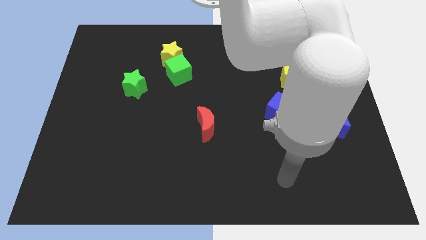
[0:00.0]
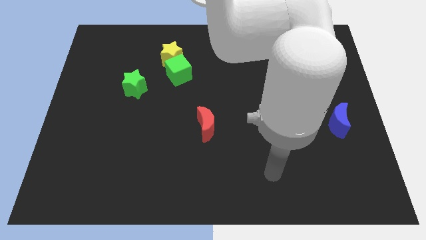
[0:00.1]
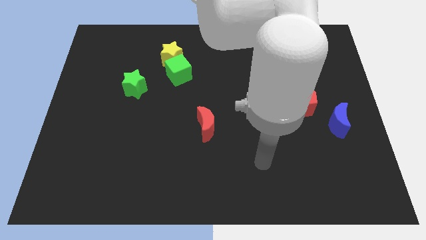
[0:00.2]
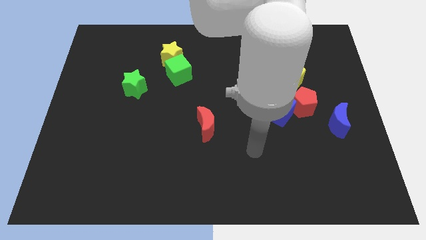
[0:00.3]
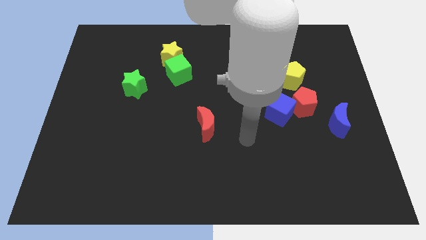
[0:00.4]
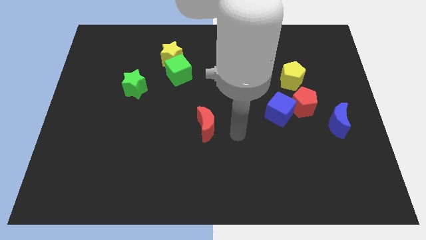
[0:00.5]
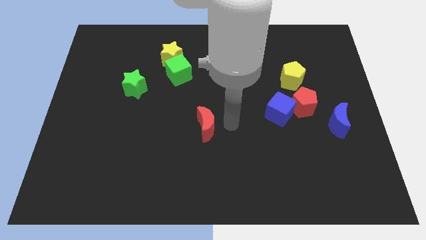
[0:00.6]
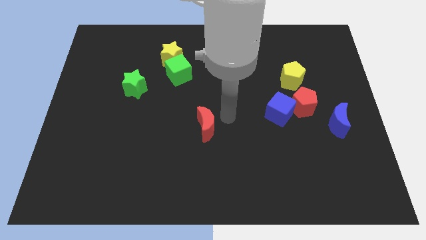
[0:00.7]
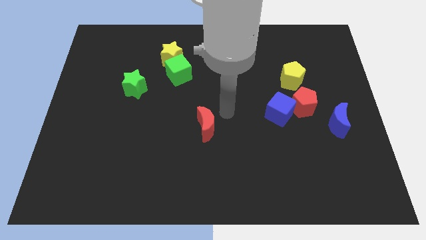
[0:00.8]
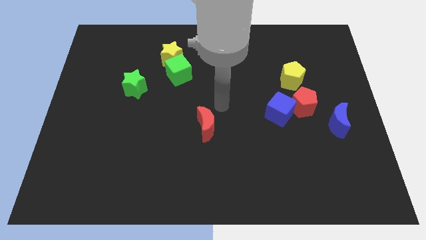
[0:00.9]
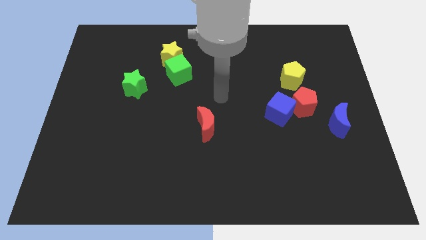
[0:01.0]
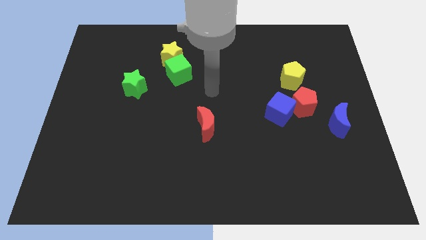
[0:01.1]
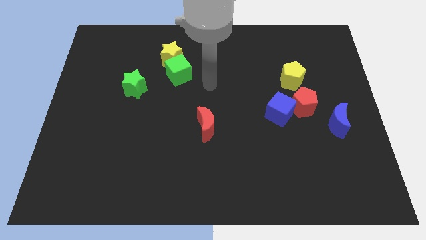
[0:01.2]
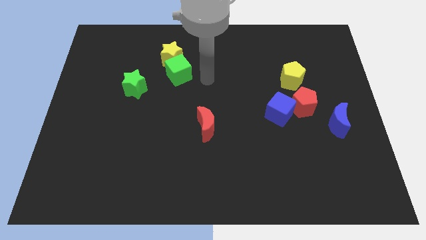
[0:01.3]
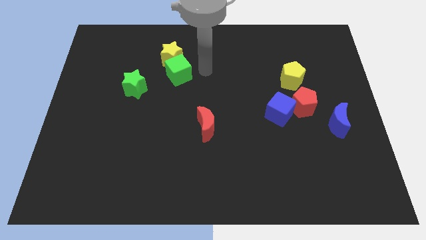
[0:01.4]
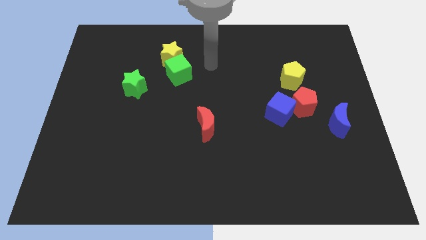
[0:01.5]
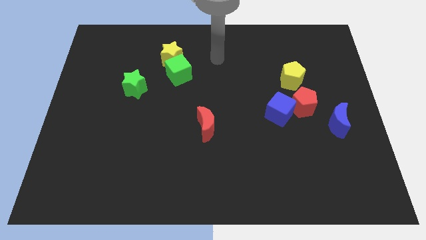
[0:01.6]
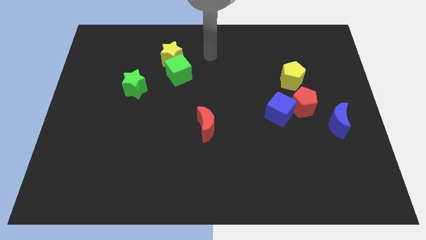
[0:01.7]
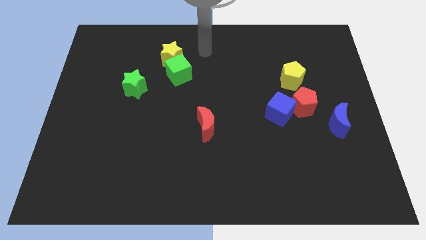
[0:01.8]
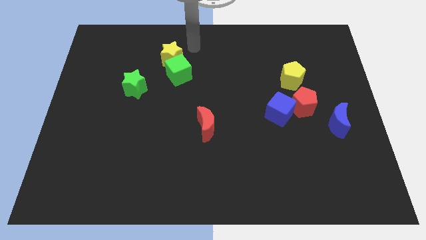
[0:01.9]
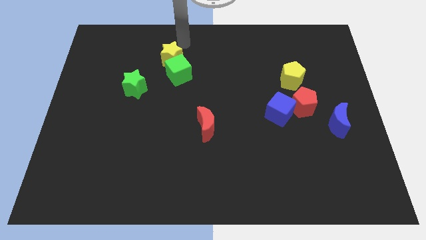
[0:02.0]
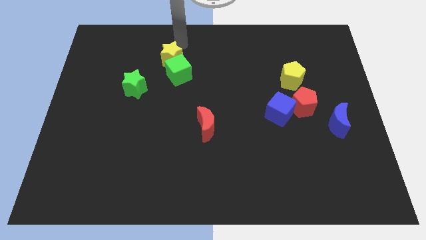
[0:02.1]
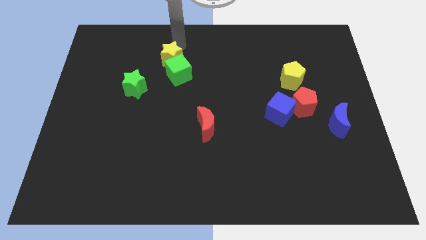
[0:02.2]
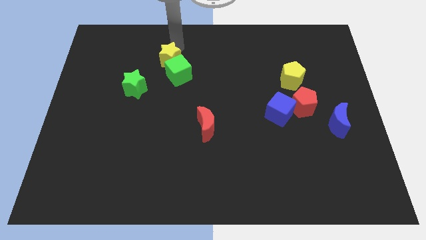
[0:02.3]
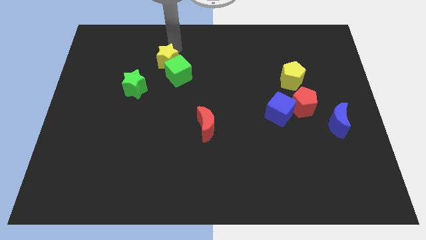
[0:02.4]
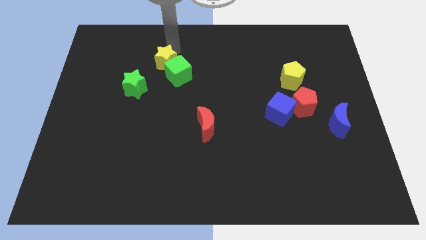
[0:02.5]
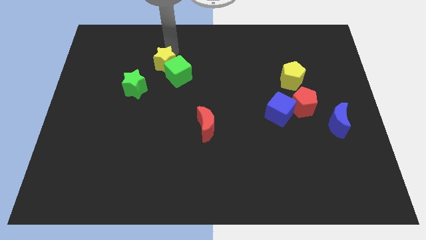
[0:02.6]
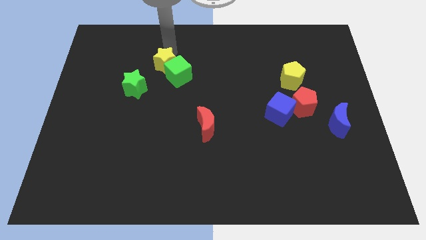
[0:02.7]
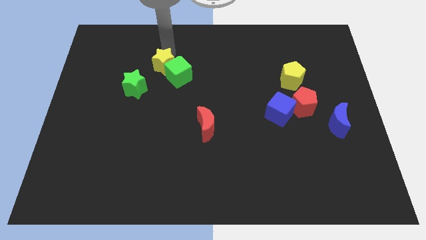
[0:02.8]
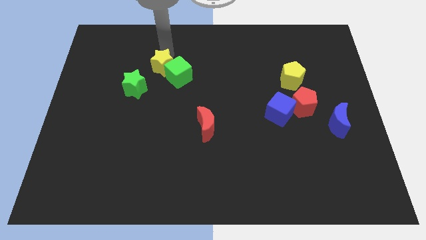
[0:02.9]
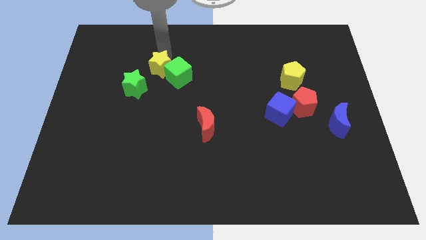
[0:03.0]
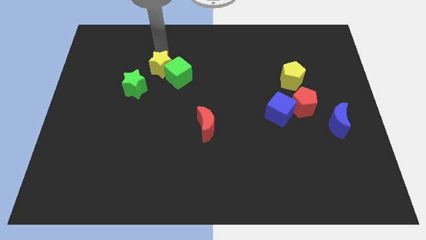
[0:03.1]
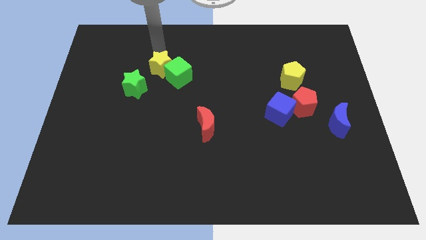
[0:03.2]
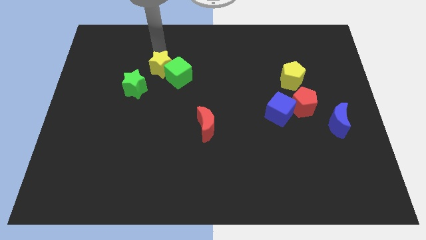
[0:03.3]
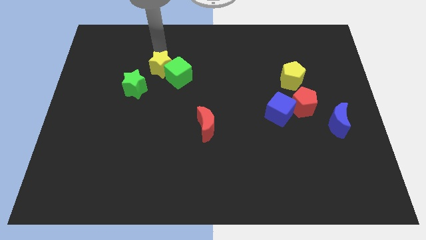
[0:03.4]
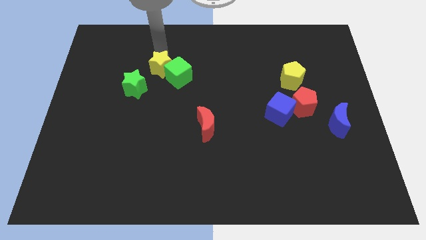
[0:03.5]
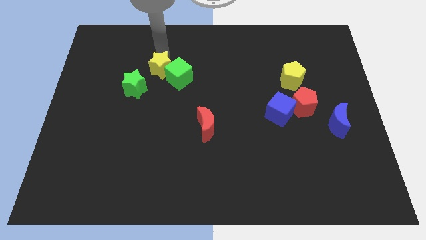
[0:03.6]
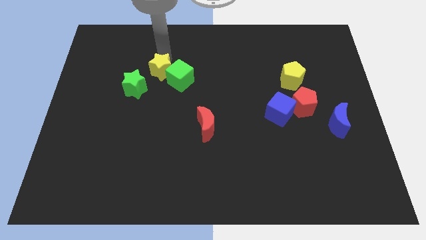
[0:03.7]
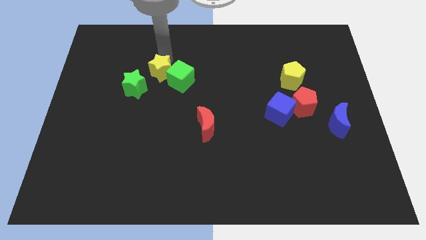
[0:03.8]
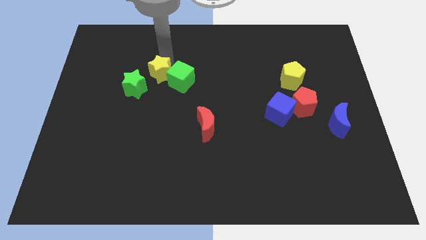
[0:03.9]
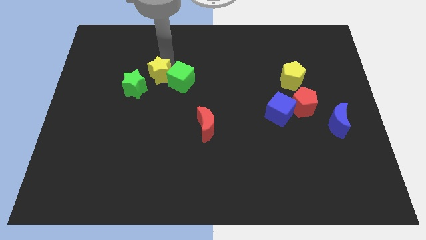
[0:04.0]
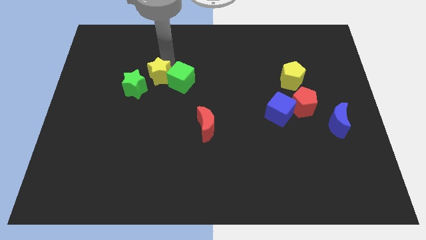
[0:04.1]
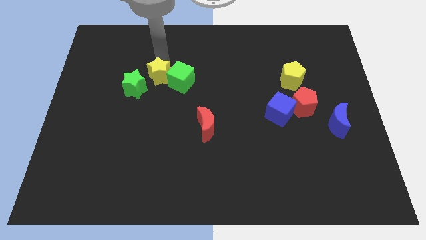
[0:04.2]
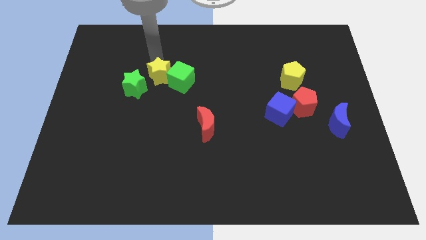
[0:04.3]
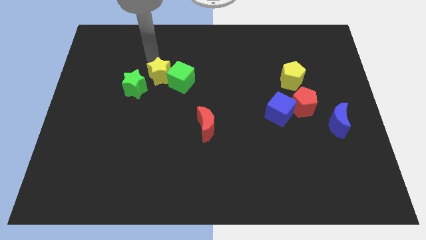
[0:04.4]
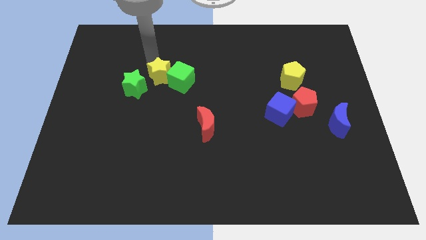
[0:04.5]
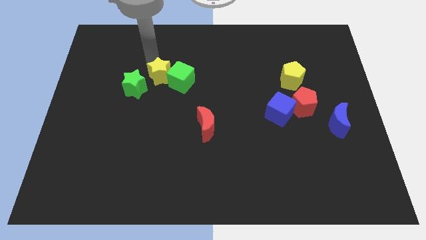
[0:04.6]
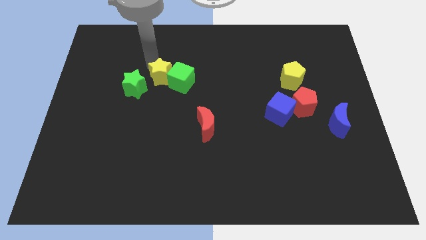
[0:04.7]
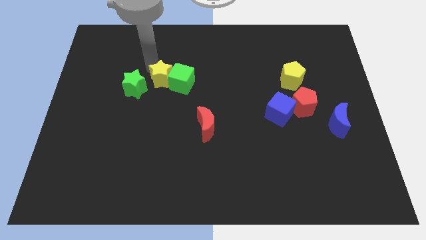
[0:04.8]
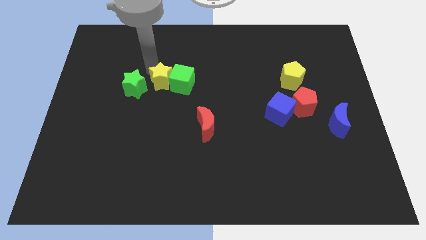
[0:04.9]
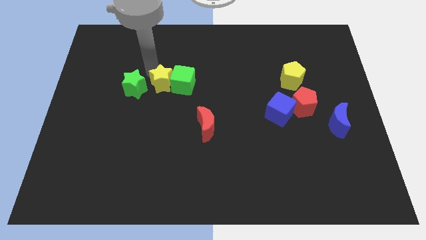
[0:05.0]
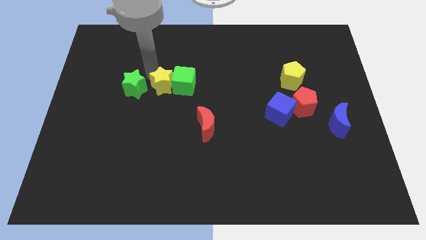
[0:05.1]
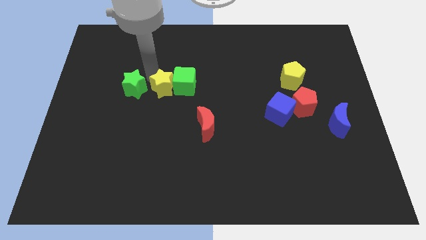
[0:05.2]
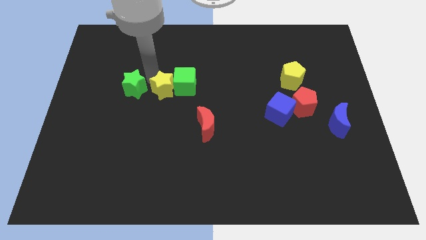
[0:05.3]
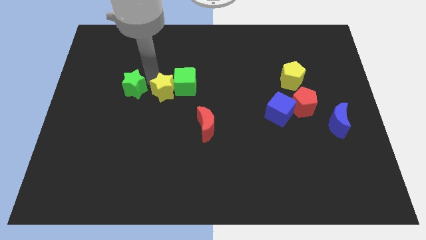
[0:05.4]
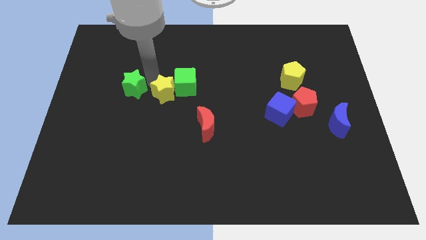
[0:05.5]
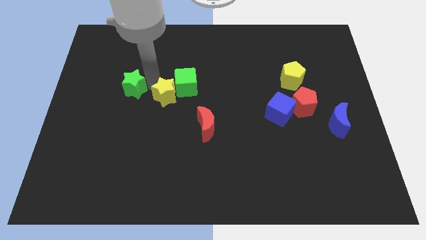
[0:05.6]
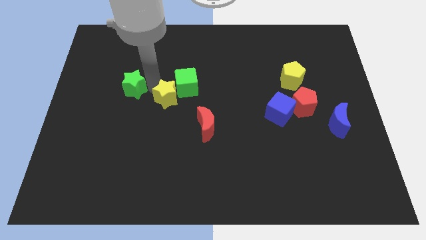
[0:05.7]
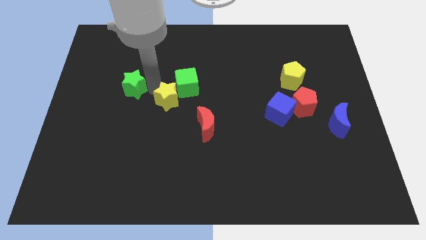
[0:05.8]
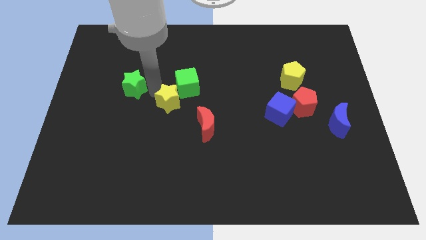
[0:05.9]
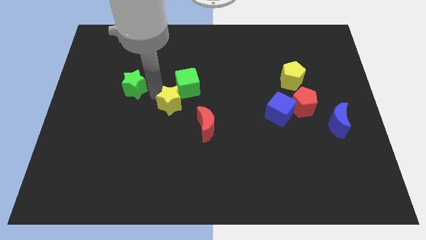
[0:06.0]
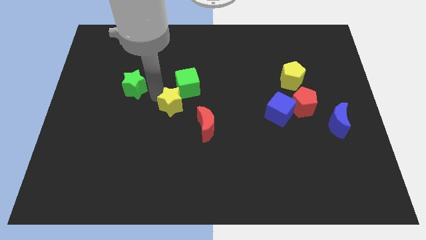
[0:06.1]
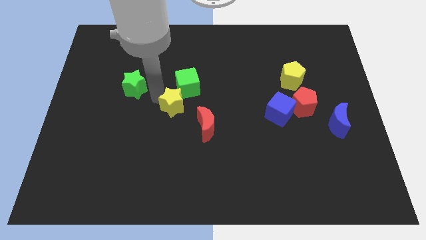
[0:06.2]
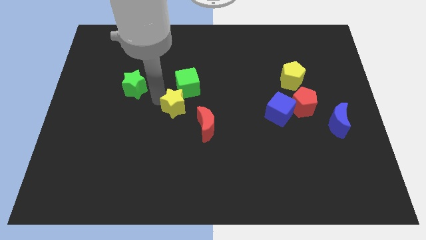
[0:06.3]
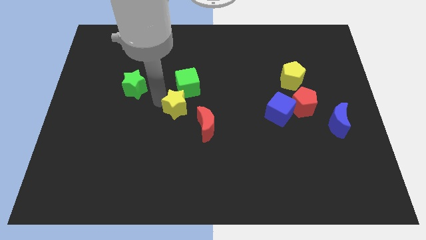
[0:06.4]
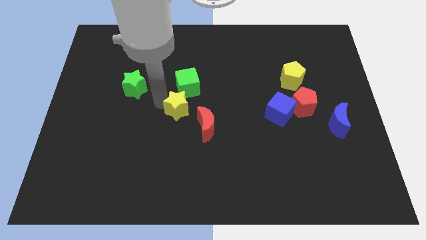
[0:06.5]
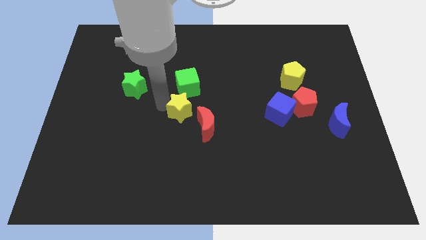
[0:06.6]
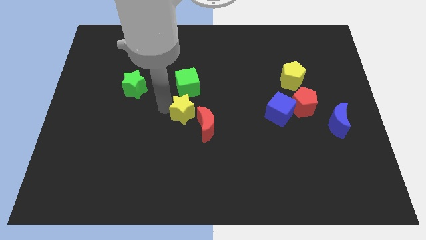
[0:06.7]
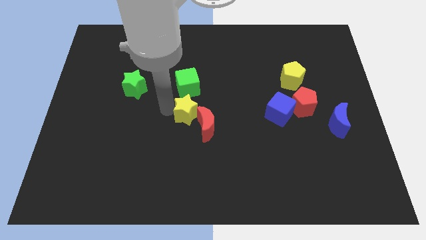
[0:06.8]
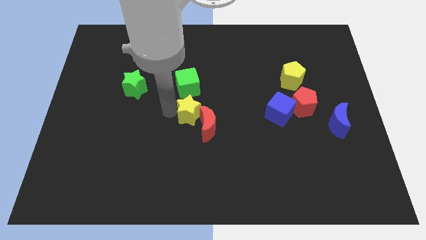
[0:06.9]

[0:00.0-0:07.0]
put the yellow star to the red moon

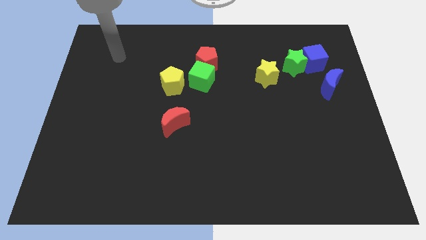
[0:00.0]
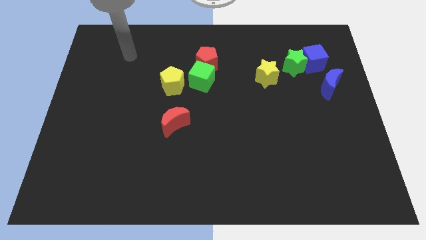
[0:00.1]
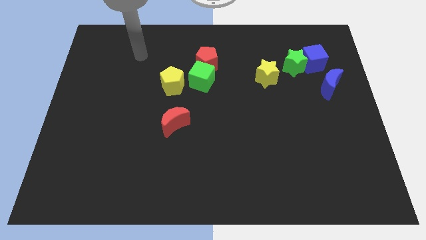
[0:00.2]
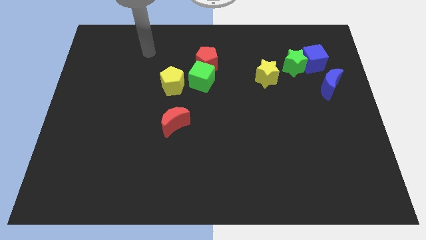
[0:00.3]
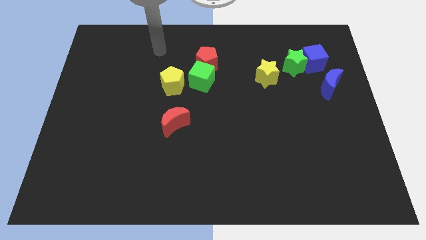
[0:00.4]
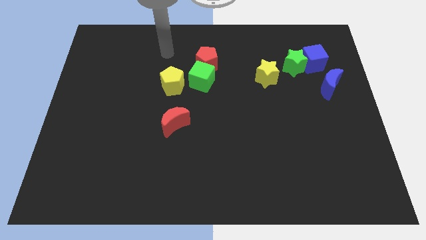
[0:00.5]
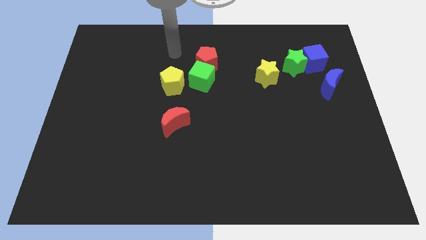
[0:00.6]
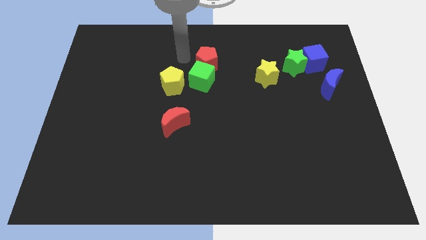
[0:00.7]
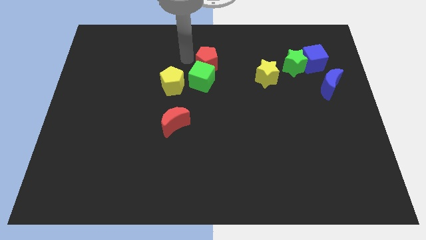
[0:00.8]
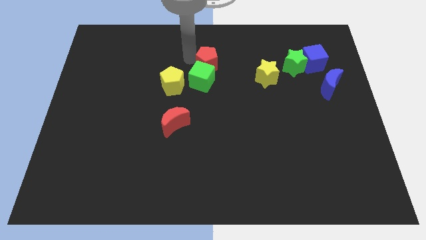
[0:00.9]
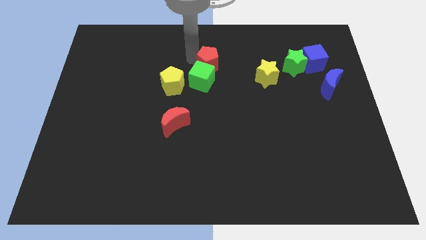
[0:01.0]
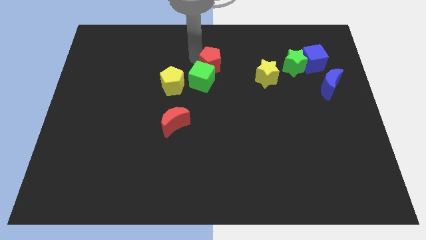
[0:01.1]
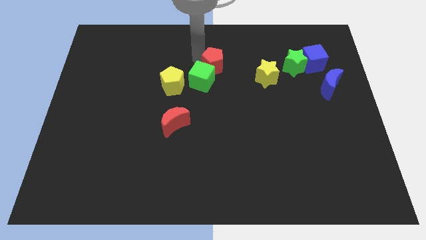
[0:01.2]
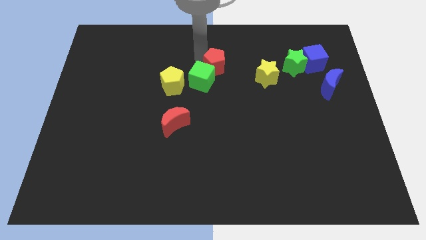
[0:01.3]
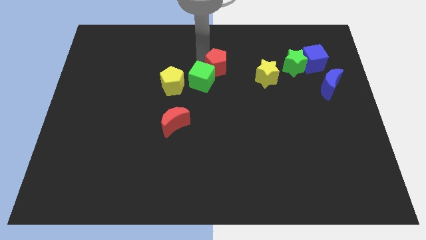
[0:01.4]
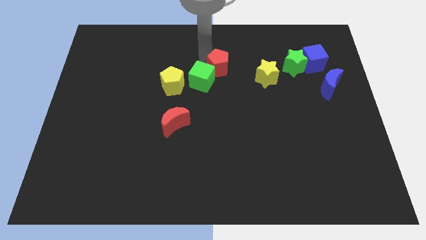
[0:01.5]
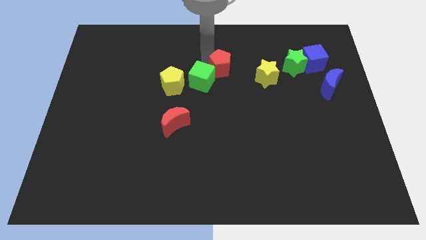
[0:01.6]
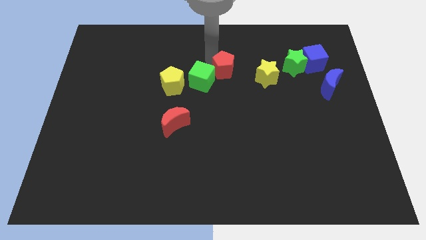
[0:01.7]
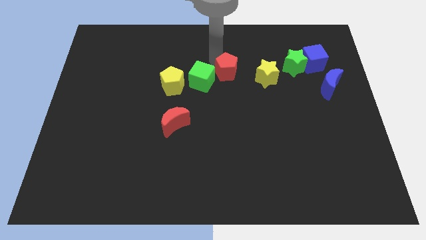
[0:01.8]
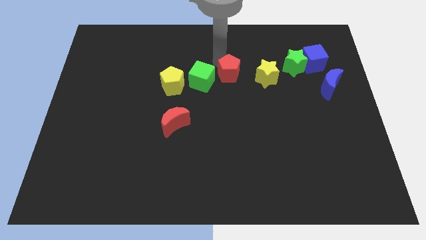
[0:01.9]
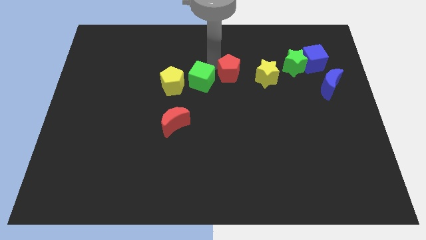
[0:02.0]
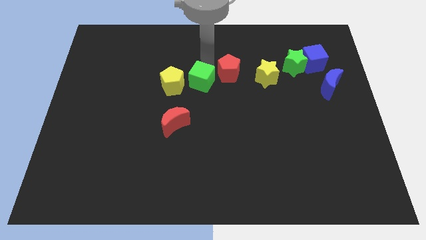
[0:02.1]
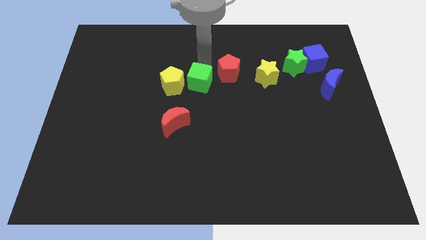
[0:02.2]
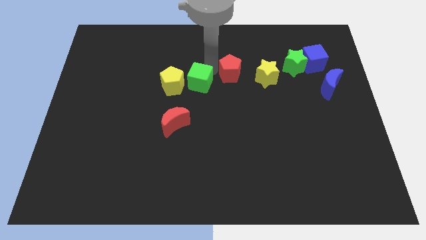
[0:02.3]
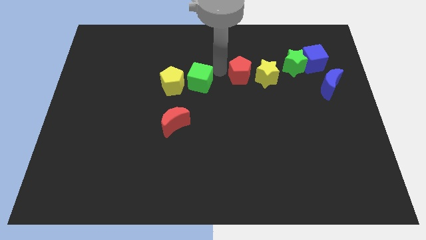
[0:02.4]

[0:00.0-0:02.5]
push the red pentagon to the yellow star
